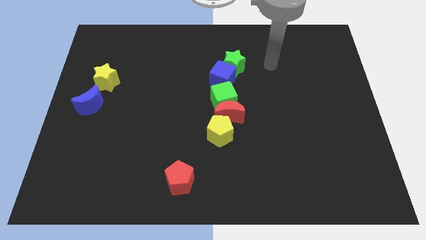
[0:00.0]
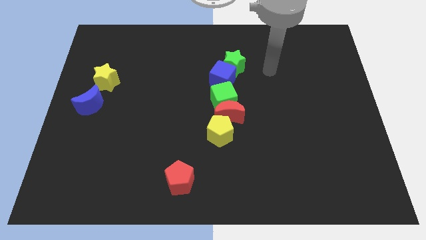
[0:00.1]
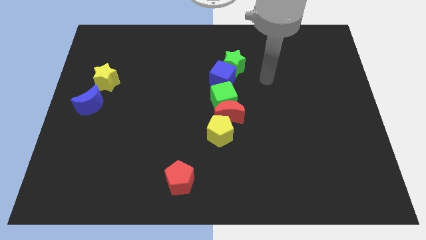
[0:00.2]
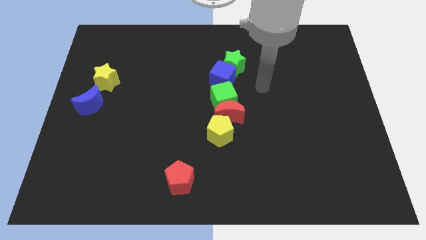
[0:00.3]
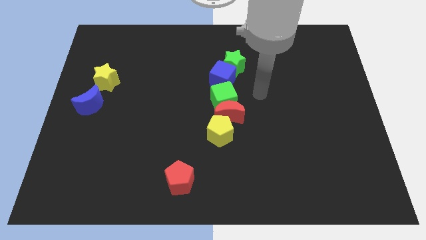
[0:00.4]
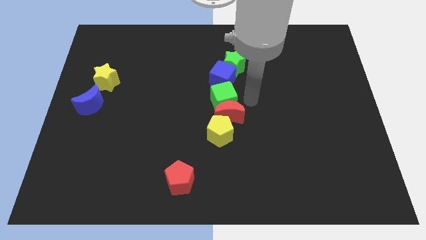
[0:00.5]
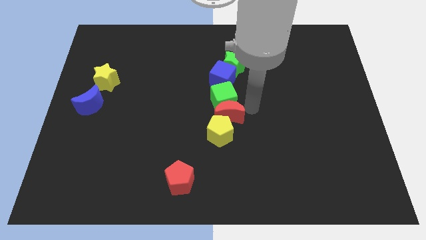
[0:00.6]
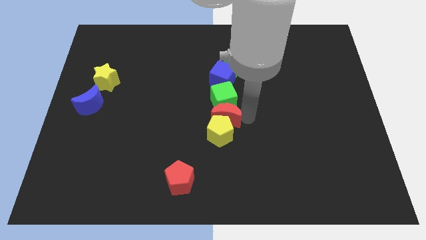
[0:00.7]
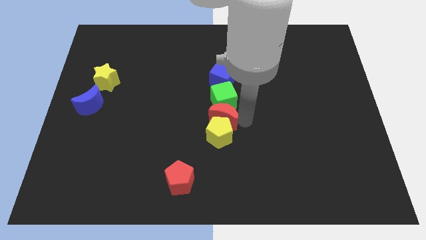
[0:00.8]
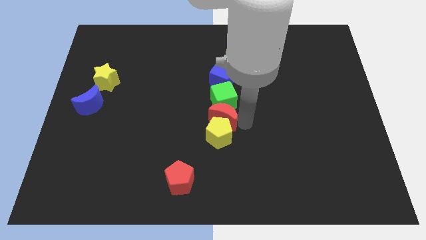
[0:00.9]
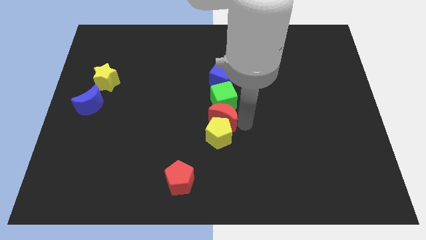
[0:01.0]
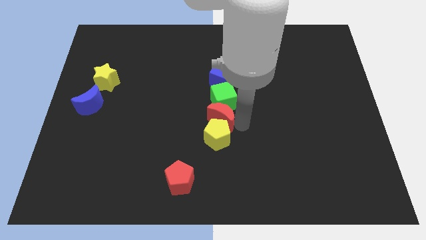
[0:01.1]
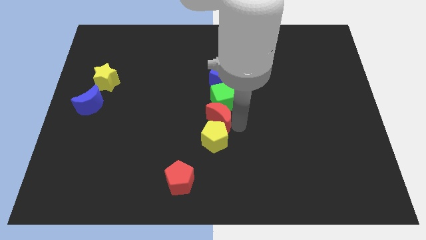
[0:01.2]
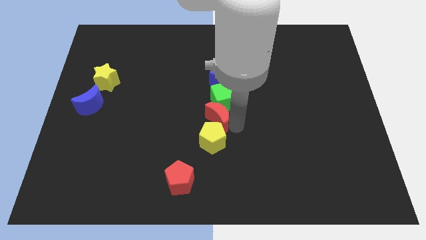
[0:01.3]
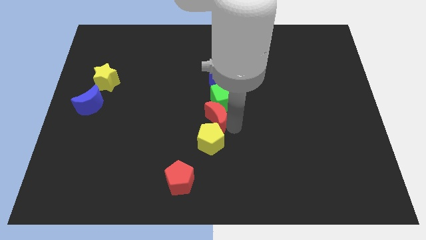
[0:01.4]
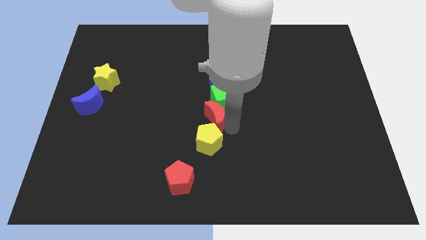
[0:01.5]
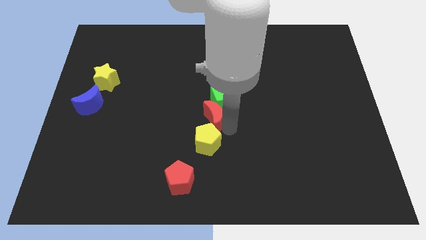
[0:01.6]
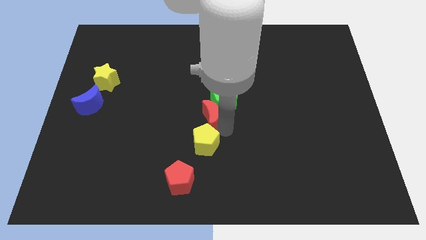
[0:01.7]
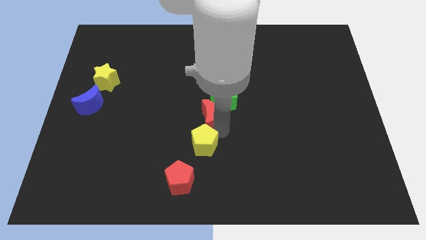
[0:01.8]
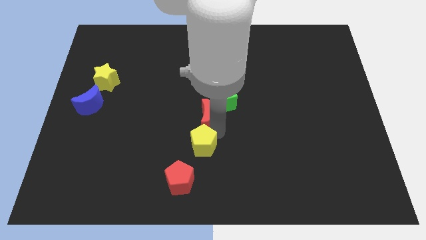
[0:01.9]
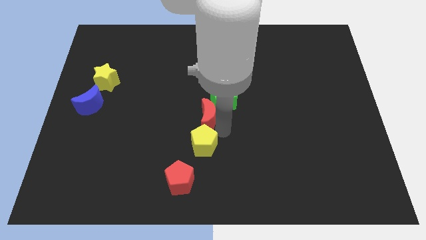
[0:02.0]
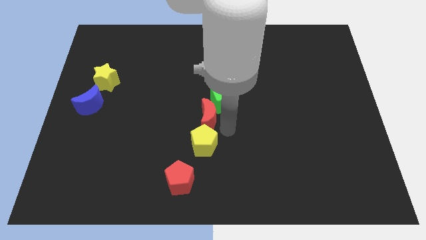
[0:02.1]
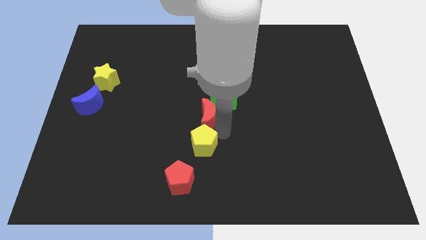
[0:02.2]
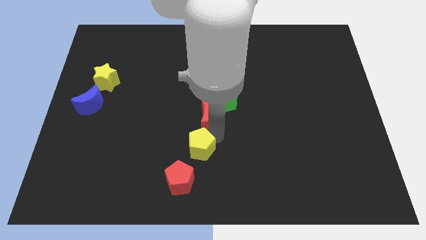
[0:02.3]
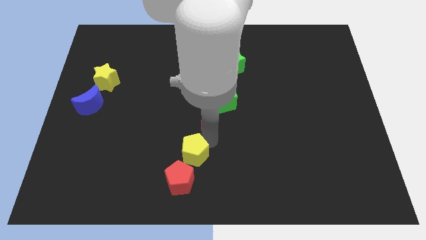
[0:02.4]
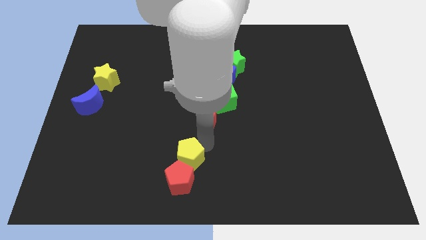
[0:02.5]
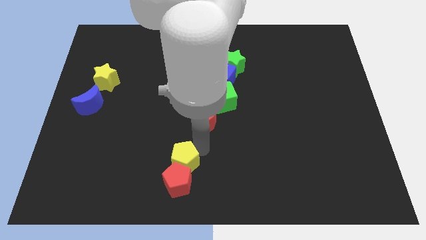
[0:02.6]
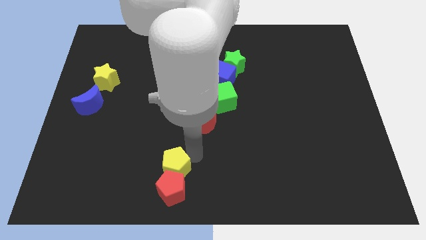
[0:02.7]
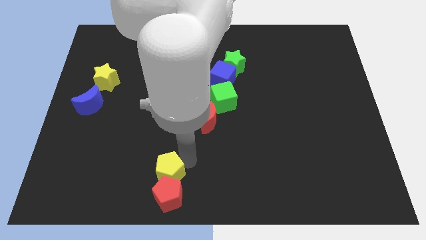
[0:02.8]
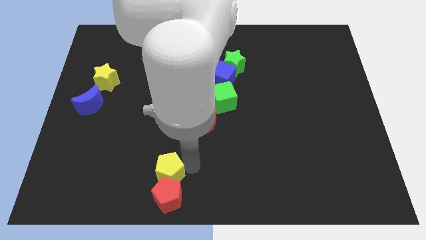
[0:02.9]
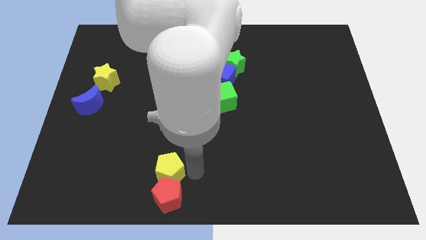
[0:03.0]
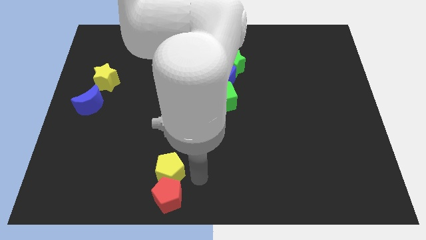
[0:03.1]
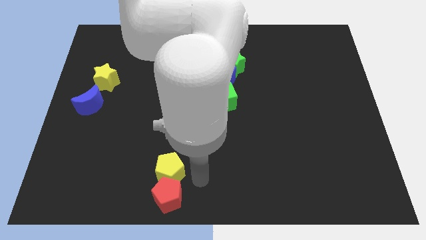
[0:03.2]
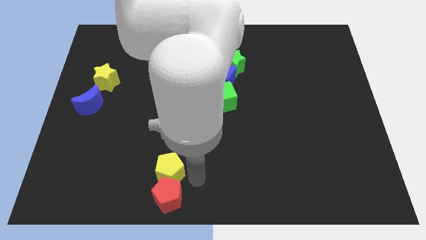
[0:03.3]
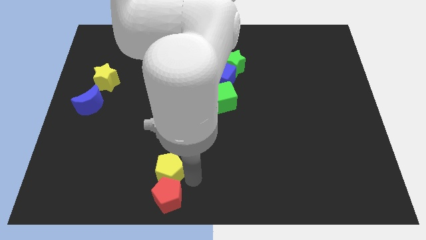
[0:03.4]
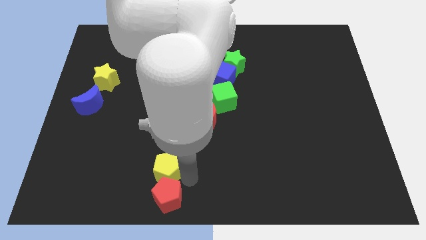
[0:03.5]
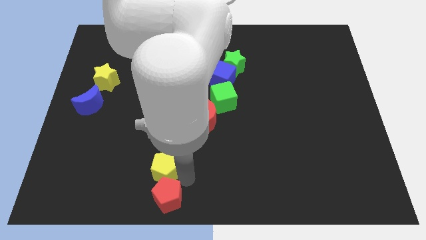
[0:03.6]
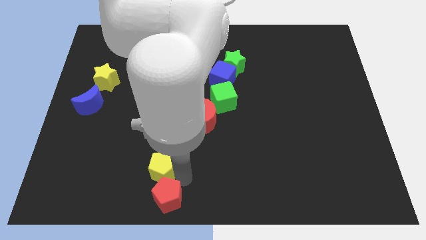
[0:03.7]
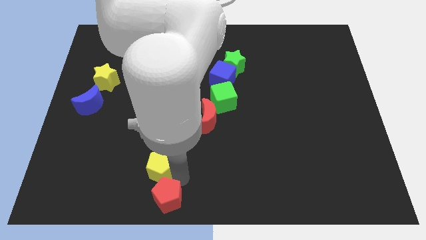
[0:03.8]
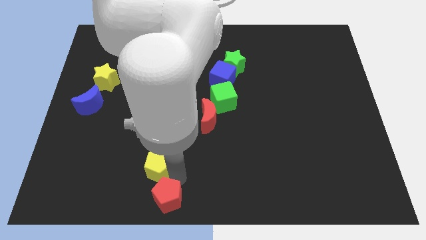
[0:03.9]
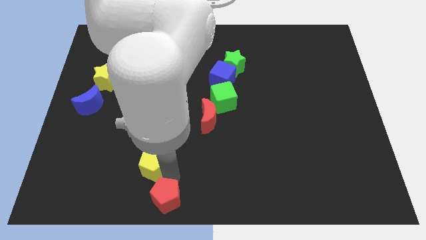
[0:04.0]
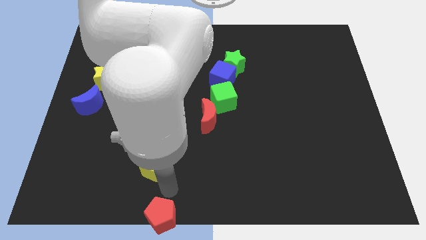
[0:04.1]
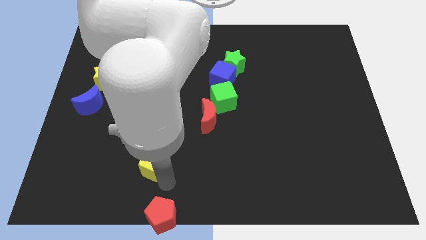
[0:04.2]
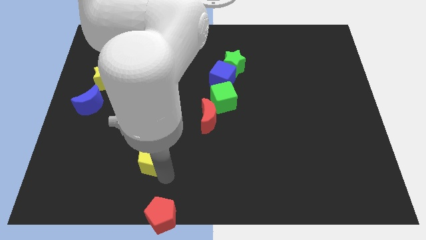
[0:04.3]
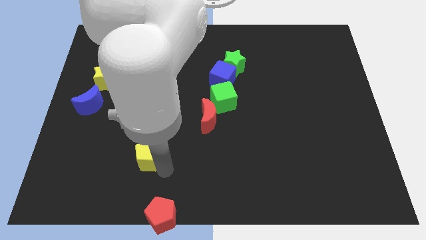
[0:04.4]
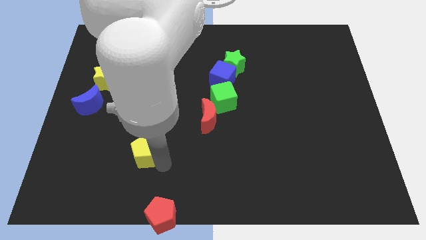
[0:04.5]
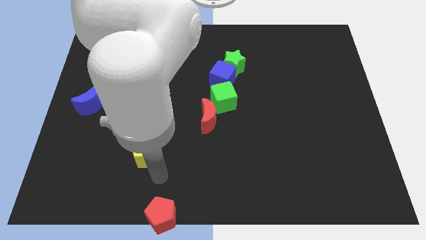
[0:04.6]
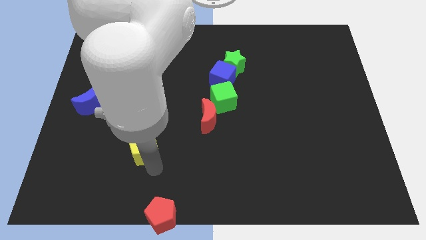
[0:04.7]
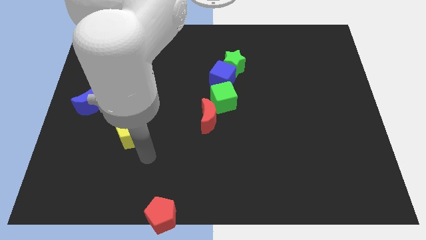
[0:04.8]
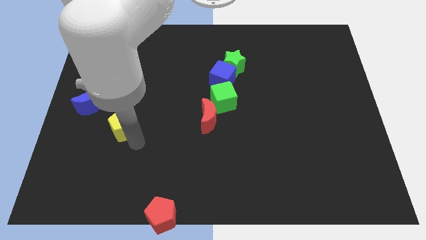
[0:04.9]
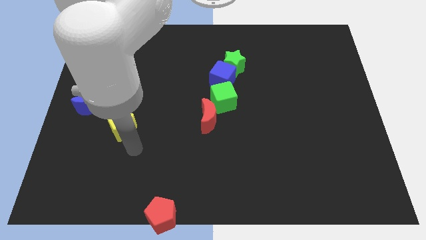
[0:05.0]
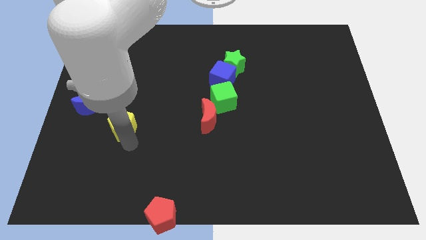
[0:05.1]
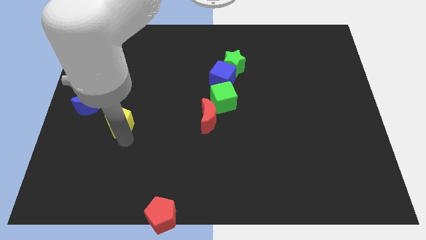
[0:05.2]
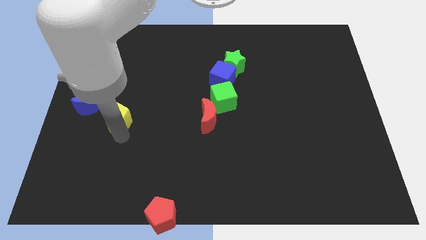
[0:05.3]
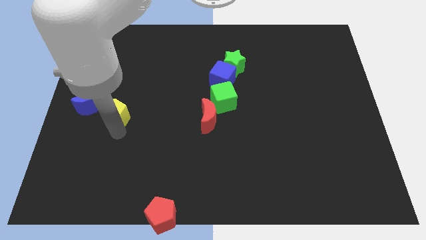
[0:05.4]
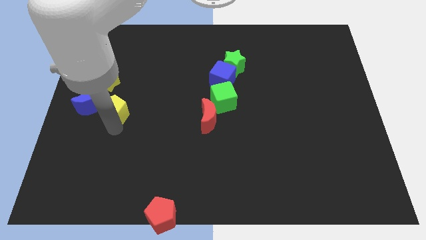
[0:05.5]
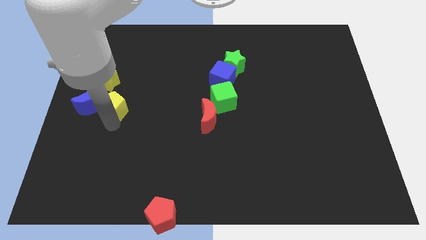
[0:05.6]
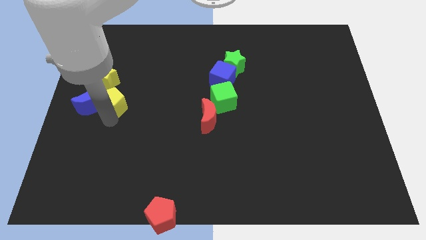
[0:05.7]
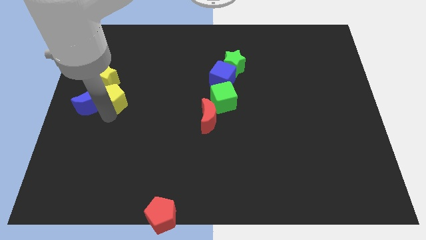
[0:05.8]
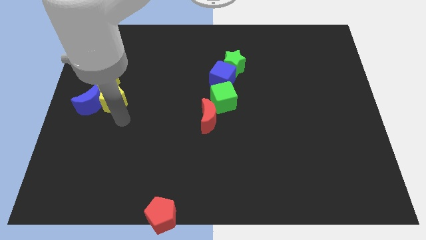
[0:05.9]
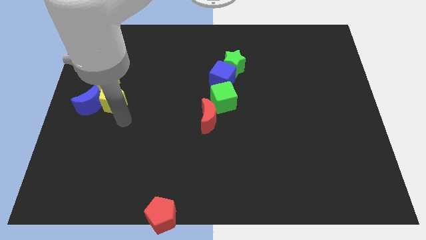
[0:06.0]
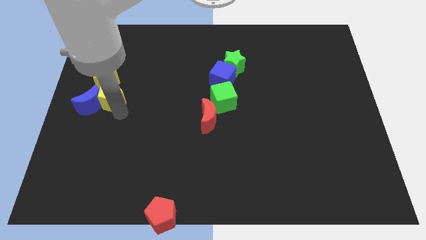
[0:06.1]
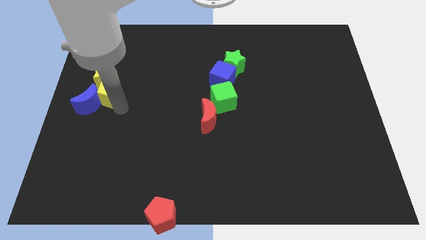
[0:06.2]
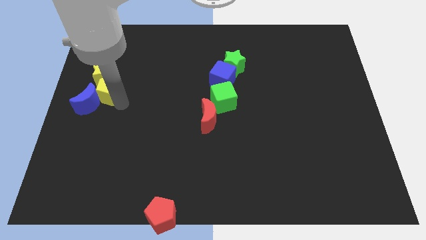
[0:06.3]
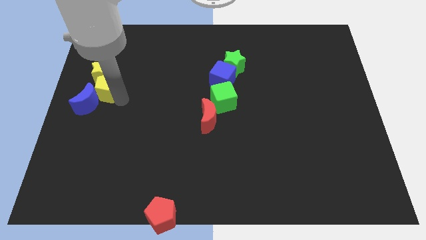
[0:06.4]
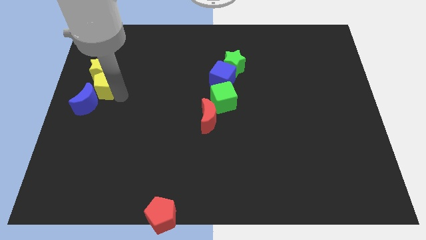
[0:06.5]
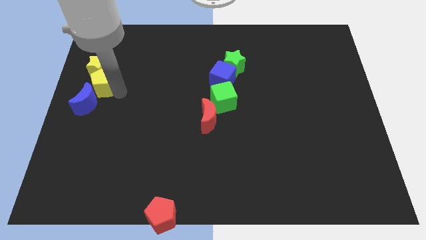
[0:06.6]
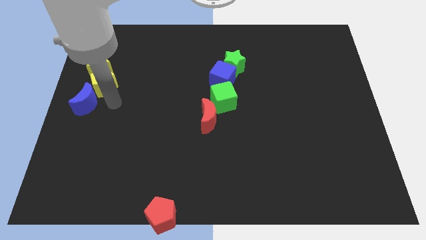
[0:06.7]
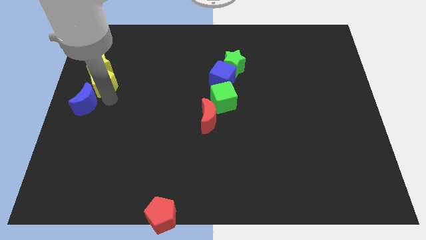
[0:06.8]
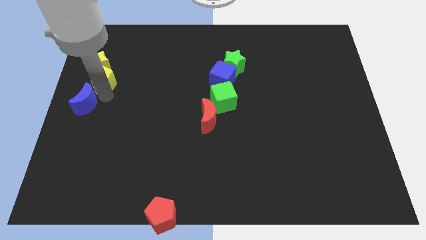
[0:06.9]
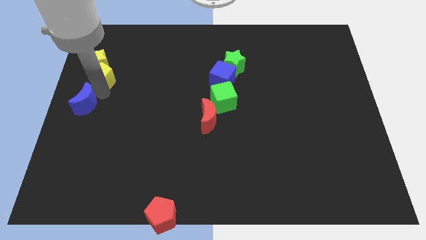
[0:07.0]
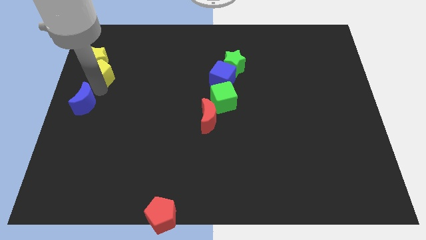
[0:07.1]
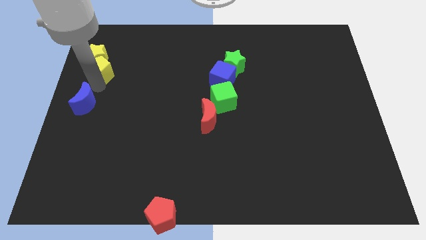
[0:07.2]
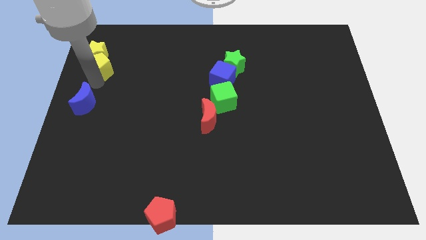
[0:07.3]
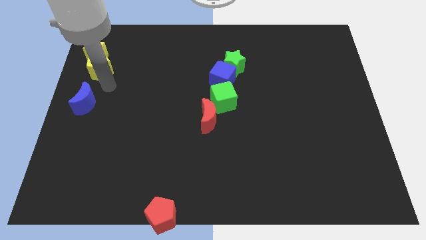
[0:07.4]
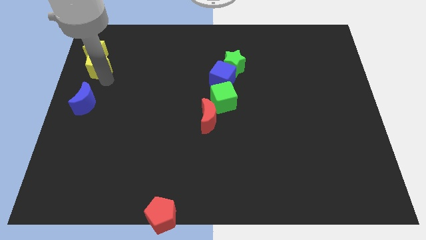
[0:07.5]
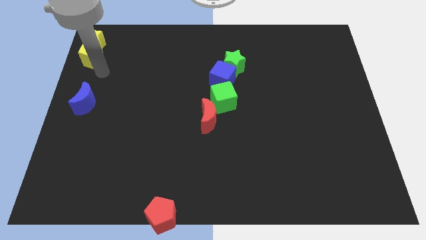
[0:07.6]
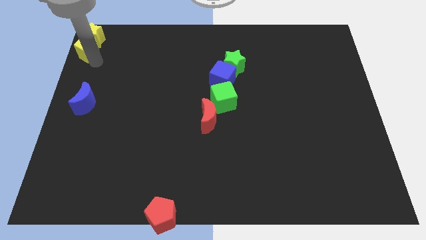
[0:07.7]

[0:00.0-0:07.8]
move the yellow pentagon to the top left
